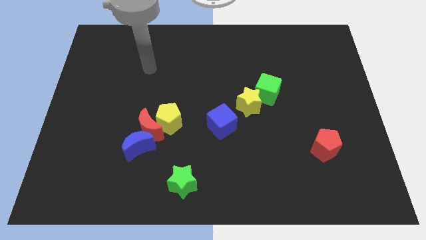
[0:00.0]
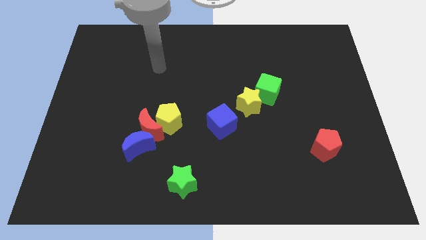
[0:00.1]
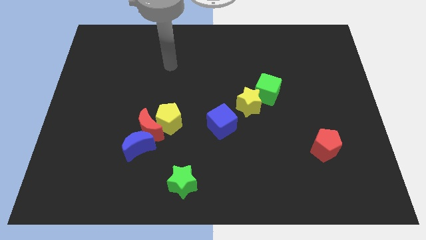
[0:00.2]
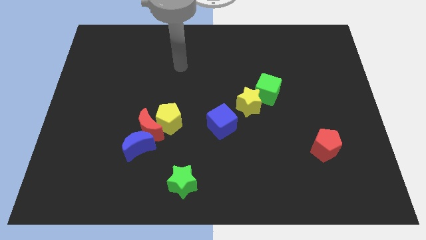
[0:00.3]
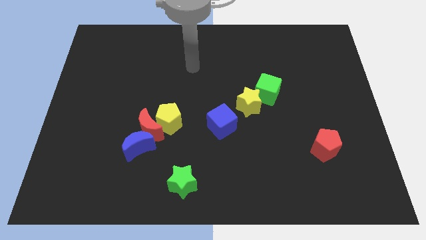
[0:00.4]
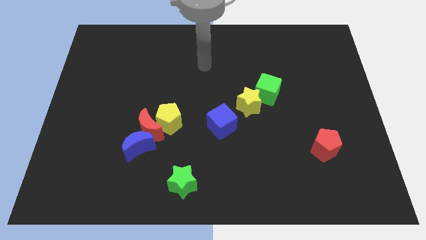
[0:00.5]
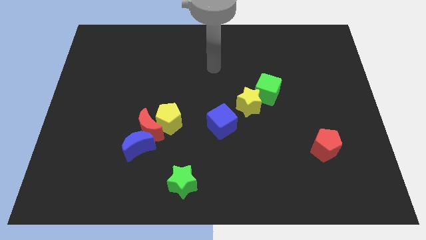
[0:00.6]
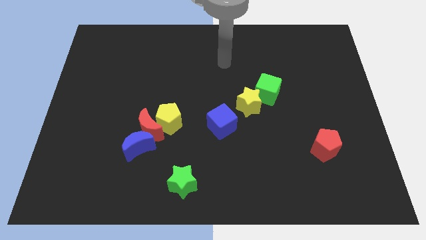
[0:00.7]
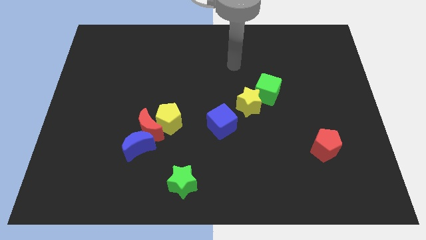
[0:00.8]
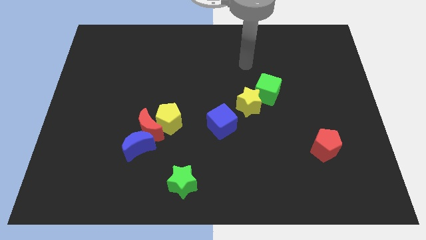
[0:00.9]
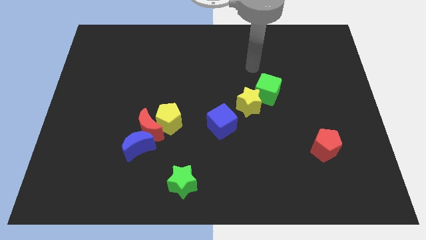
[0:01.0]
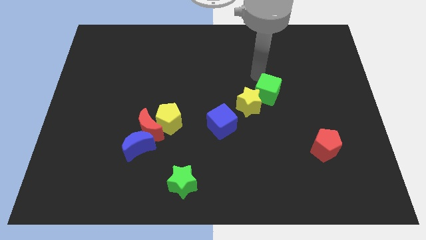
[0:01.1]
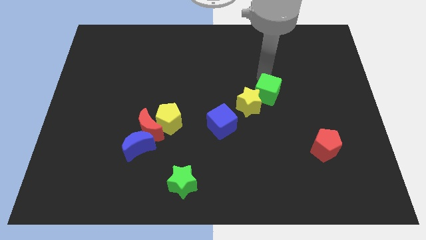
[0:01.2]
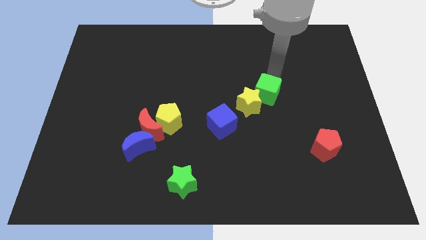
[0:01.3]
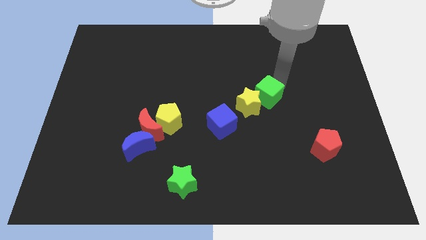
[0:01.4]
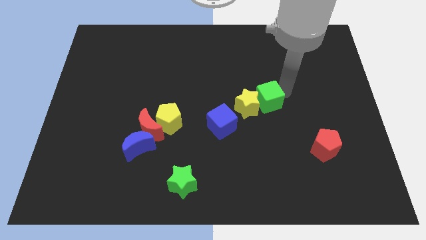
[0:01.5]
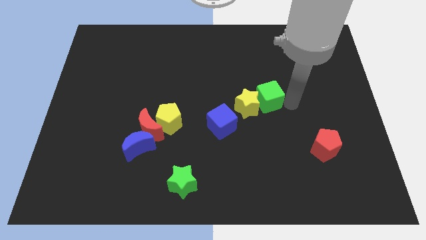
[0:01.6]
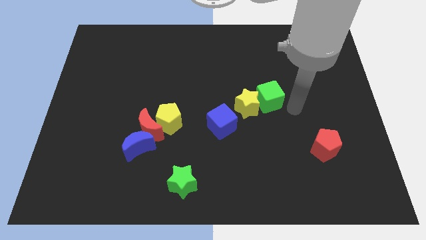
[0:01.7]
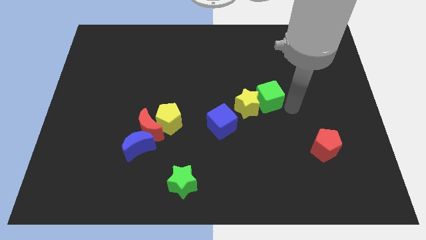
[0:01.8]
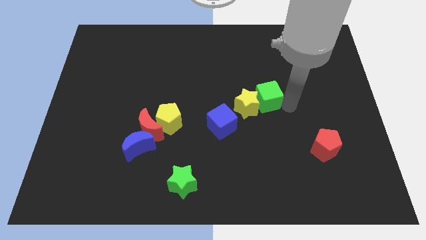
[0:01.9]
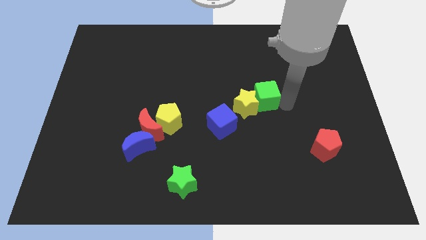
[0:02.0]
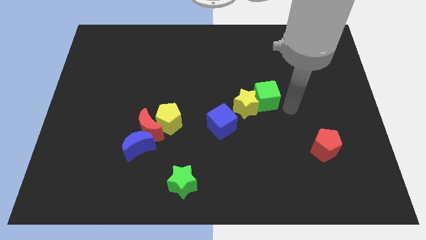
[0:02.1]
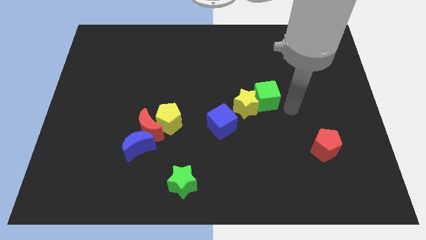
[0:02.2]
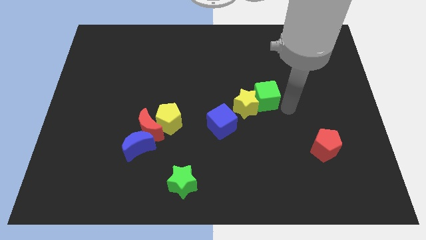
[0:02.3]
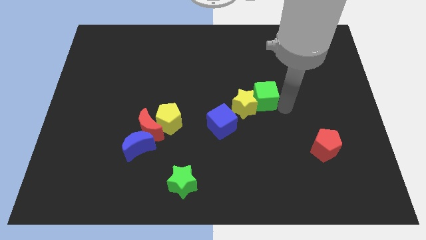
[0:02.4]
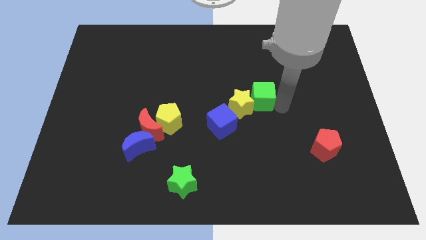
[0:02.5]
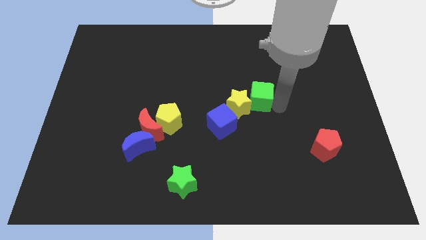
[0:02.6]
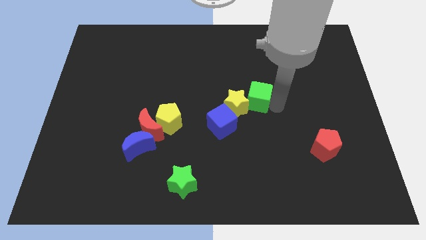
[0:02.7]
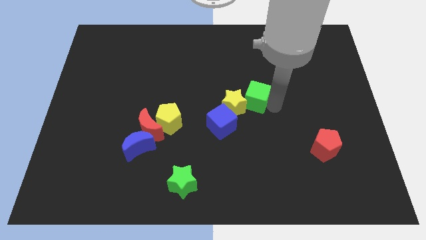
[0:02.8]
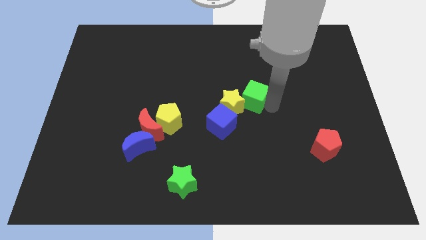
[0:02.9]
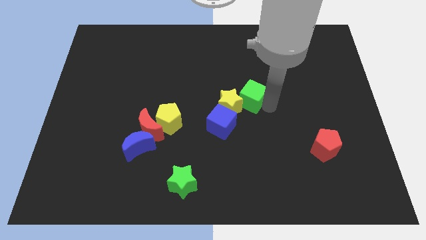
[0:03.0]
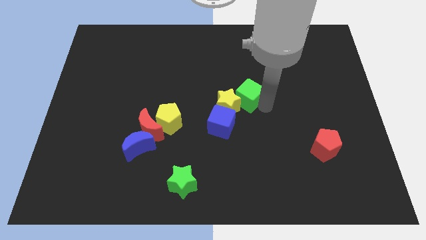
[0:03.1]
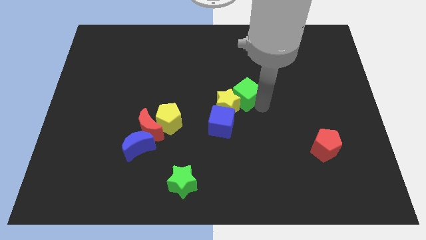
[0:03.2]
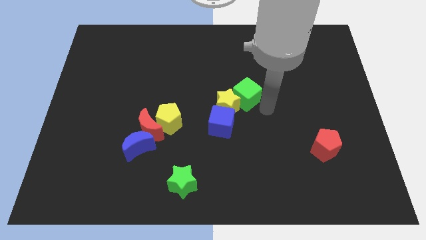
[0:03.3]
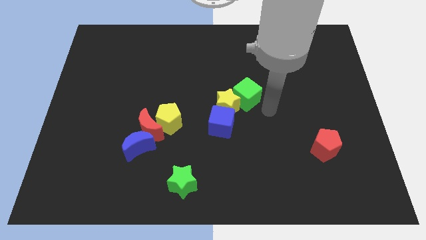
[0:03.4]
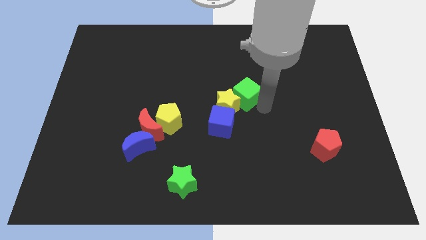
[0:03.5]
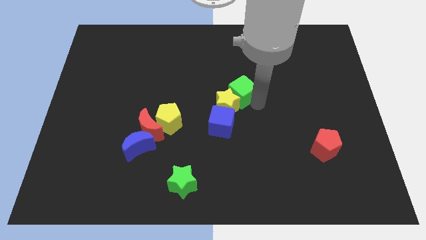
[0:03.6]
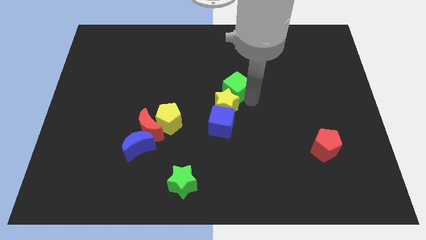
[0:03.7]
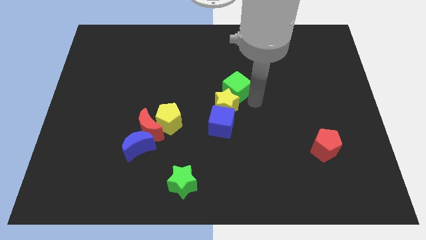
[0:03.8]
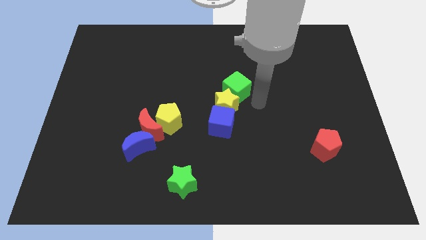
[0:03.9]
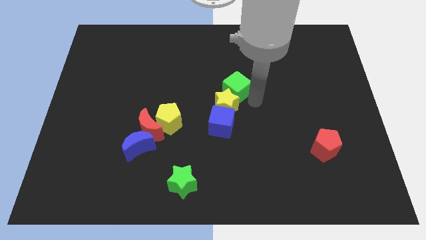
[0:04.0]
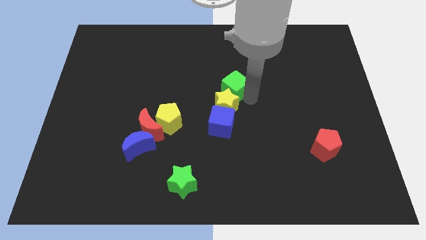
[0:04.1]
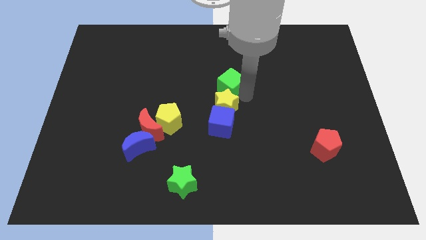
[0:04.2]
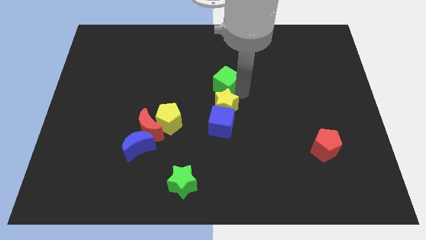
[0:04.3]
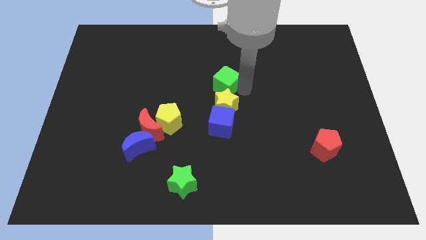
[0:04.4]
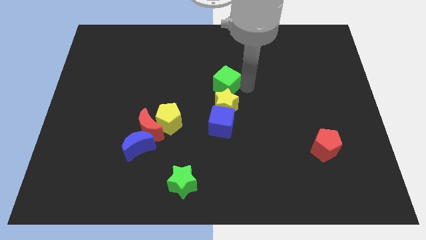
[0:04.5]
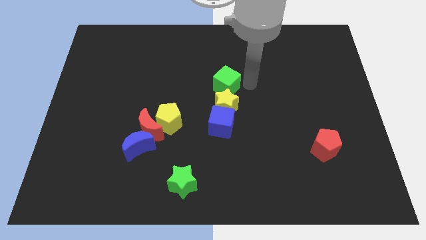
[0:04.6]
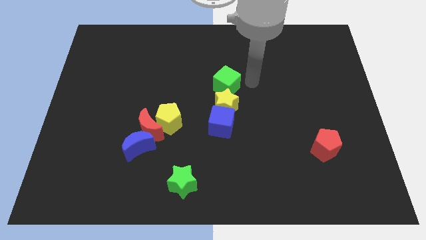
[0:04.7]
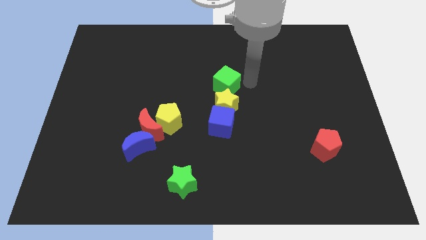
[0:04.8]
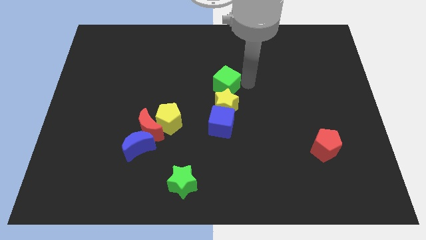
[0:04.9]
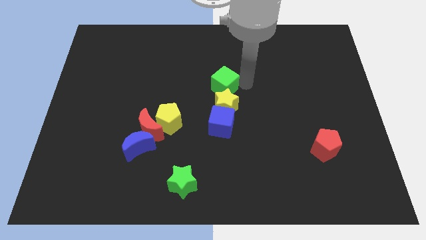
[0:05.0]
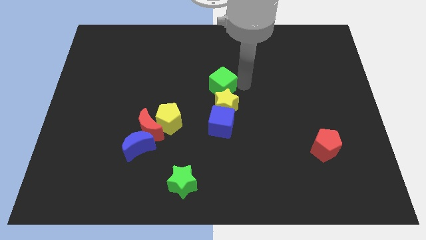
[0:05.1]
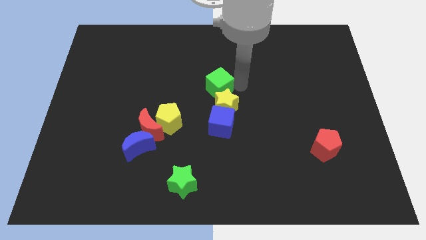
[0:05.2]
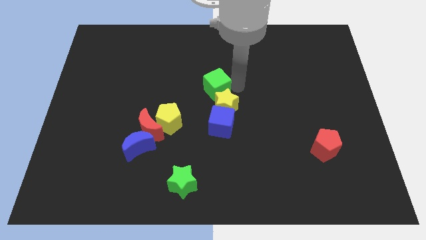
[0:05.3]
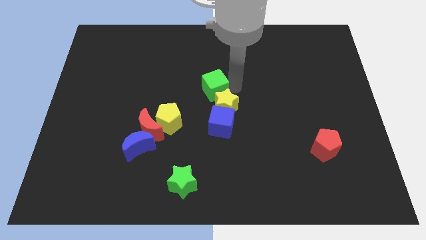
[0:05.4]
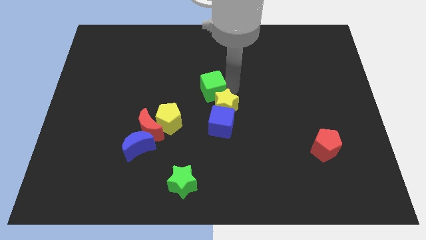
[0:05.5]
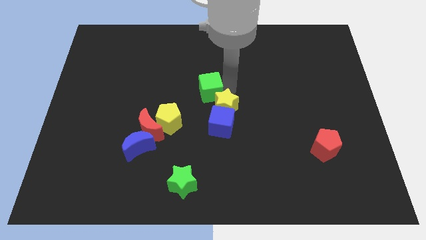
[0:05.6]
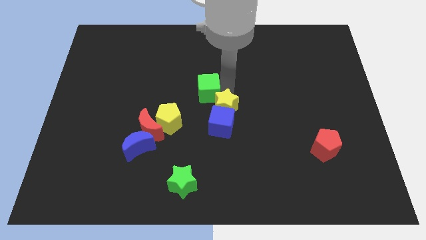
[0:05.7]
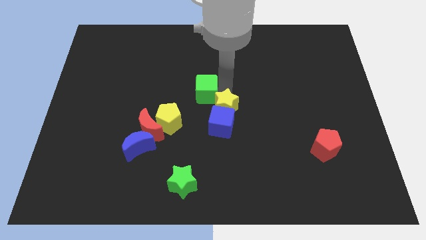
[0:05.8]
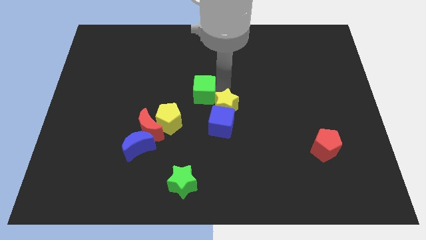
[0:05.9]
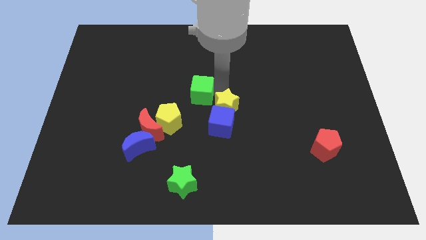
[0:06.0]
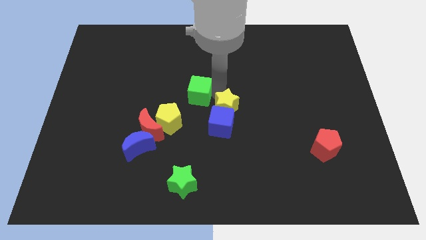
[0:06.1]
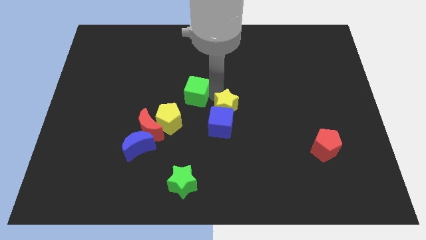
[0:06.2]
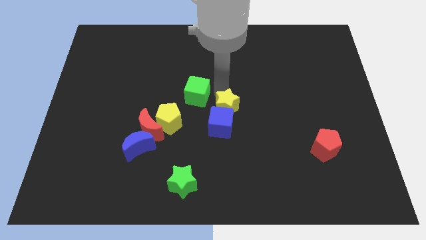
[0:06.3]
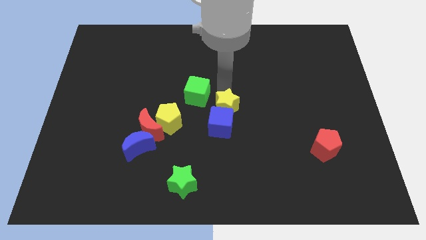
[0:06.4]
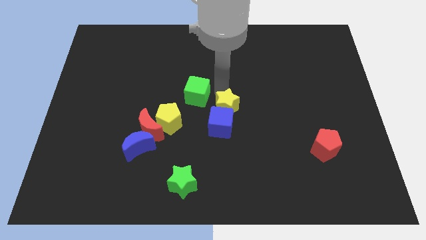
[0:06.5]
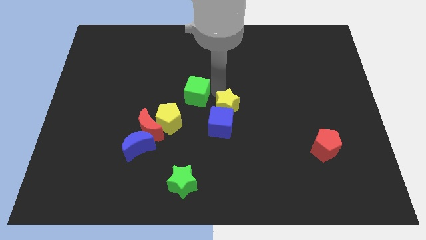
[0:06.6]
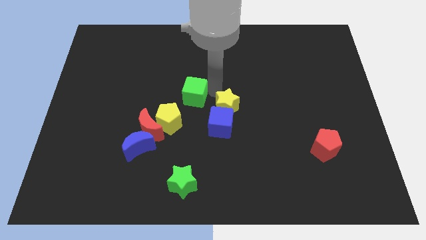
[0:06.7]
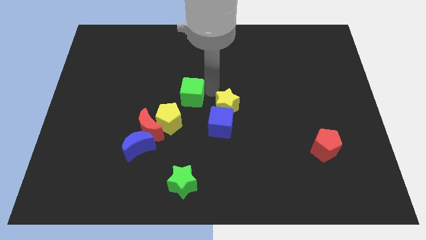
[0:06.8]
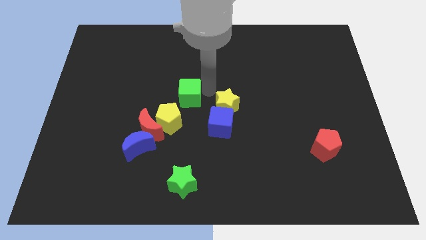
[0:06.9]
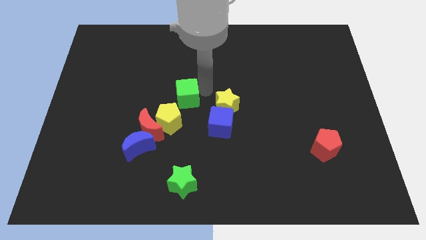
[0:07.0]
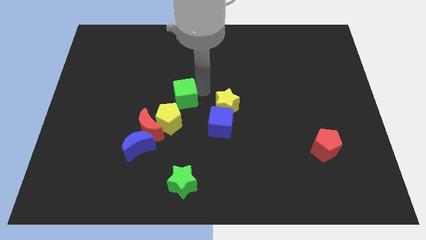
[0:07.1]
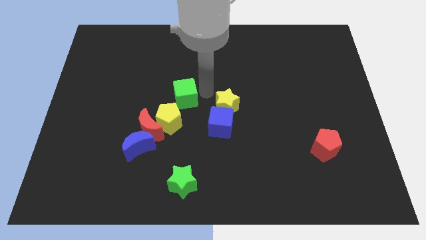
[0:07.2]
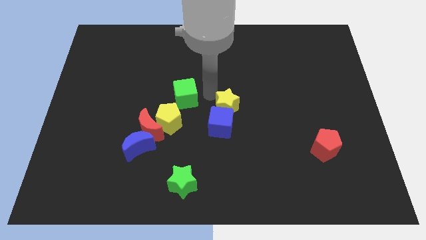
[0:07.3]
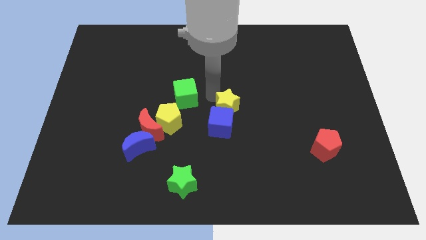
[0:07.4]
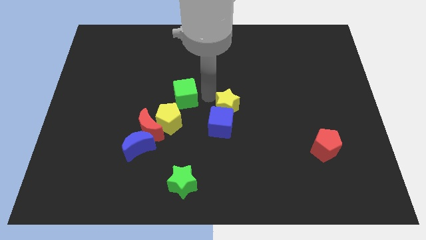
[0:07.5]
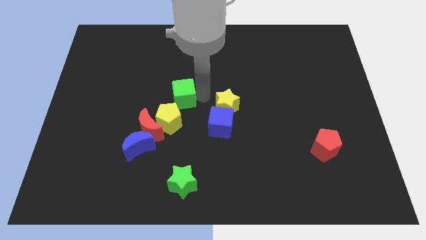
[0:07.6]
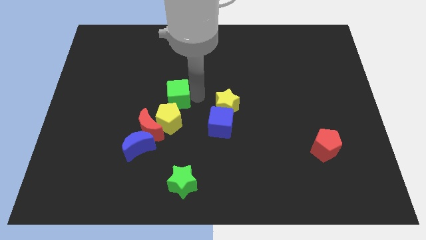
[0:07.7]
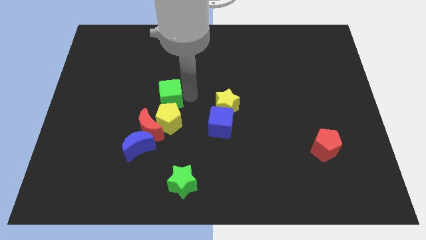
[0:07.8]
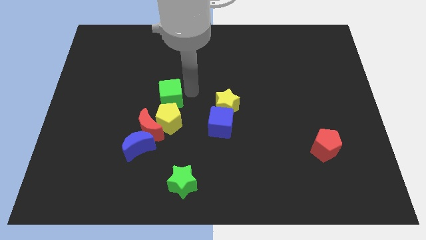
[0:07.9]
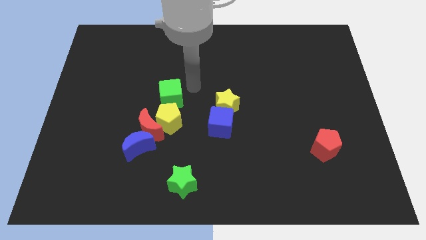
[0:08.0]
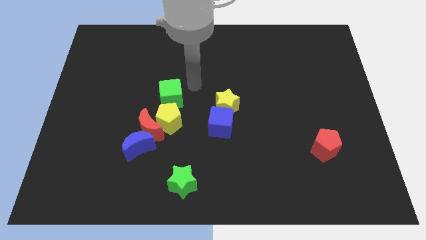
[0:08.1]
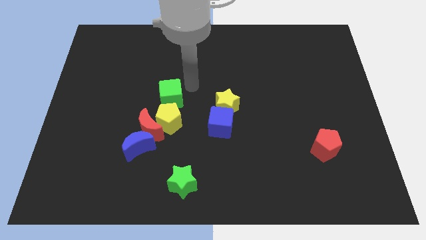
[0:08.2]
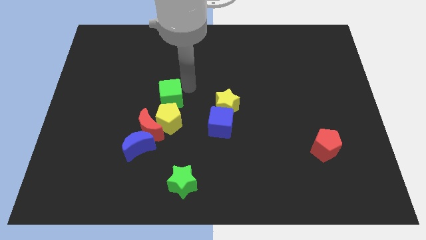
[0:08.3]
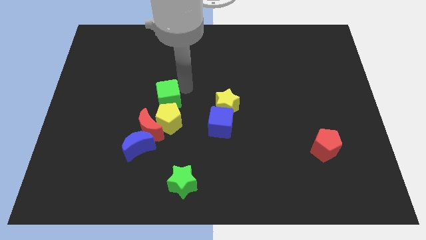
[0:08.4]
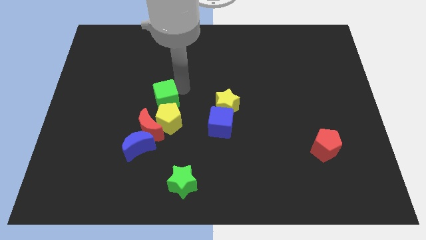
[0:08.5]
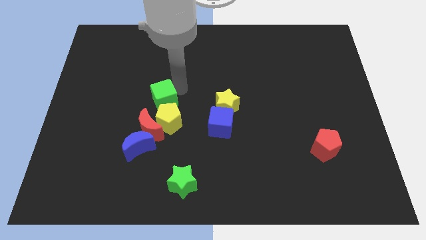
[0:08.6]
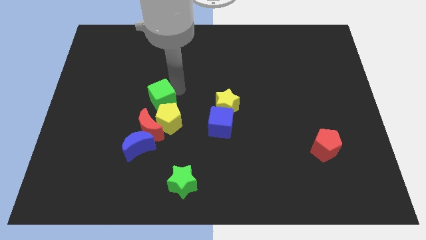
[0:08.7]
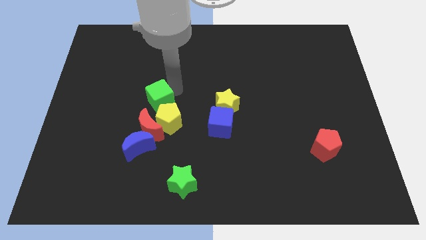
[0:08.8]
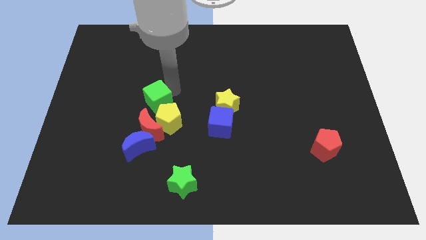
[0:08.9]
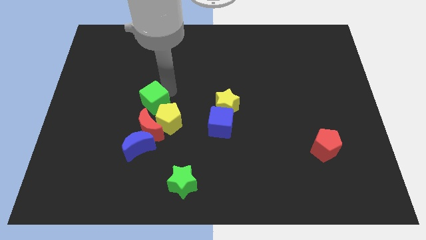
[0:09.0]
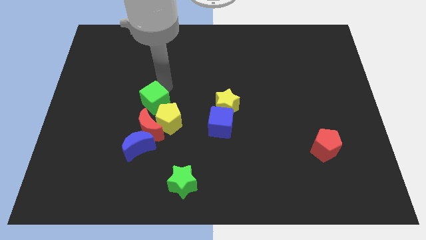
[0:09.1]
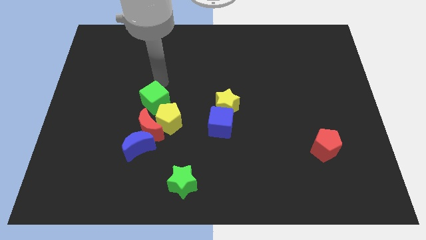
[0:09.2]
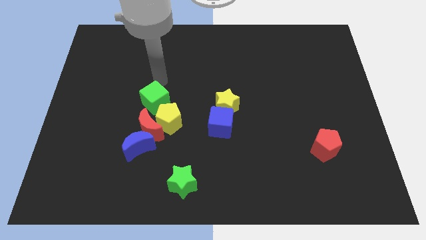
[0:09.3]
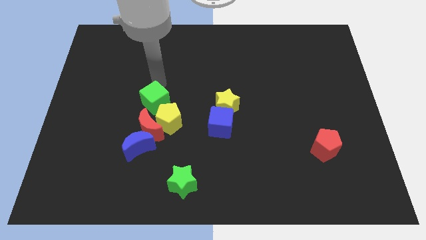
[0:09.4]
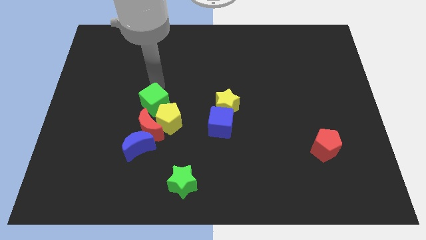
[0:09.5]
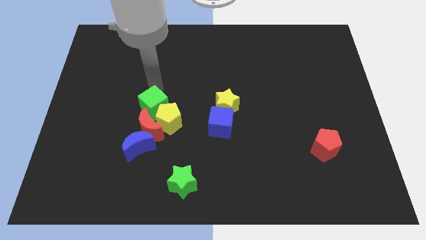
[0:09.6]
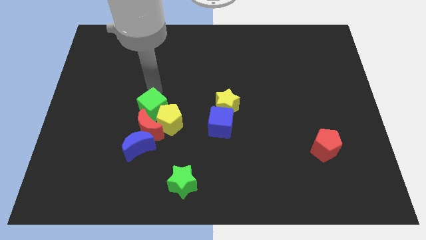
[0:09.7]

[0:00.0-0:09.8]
put the green cube towards the red moon
